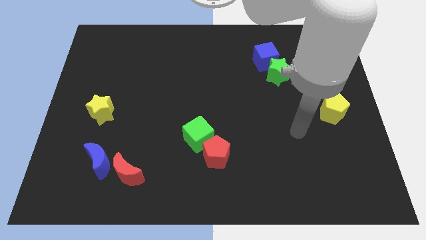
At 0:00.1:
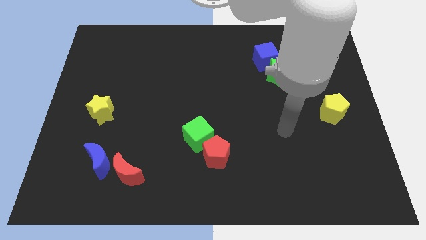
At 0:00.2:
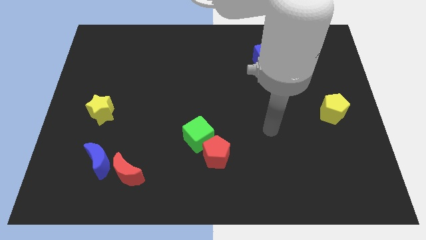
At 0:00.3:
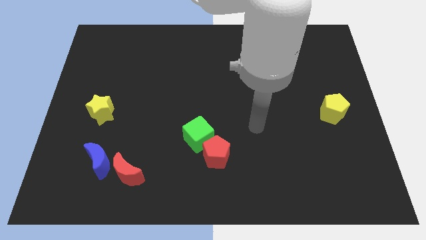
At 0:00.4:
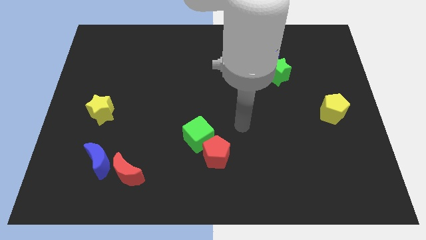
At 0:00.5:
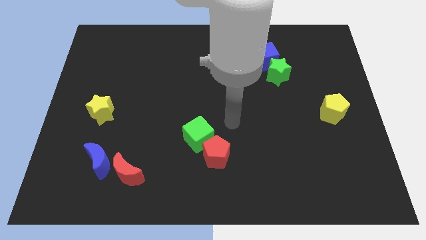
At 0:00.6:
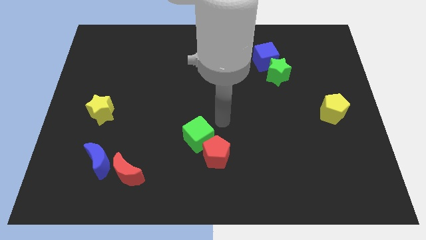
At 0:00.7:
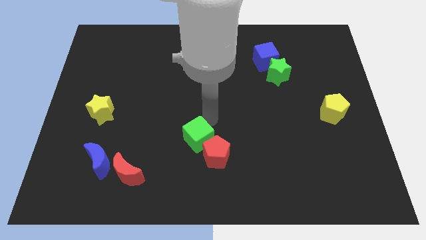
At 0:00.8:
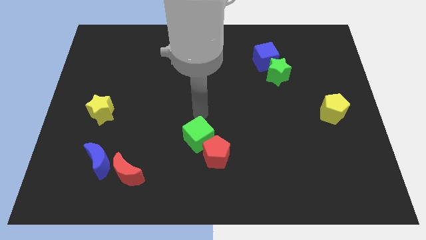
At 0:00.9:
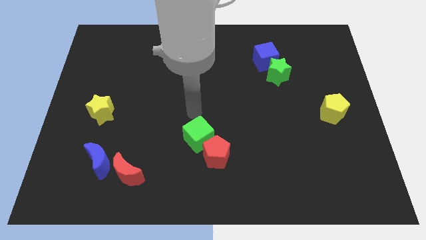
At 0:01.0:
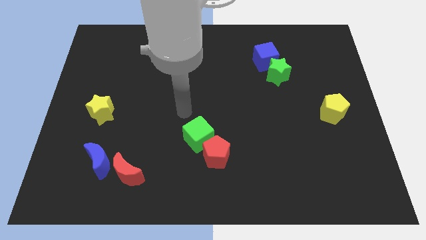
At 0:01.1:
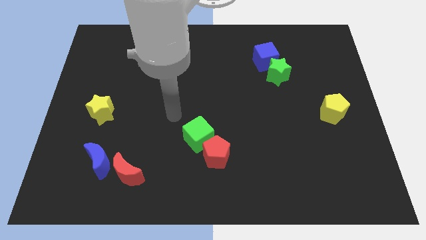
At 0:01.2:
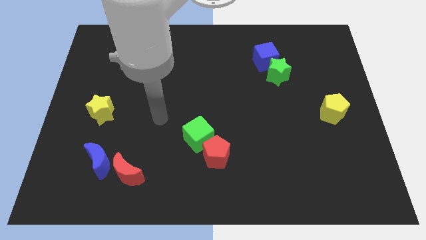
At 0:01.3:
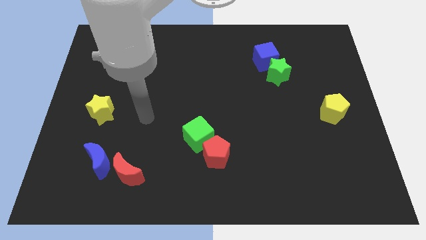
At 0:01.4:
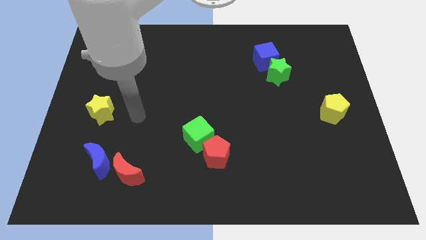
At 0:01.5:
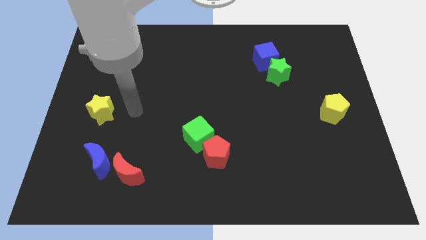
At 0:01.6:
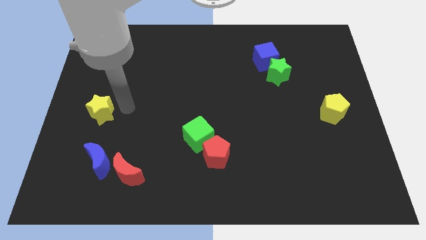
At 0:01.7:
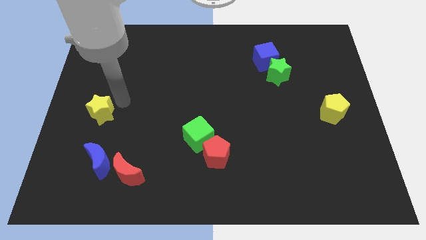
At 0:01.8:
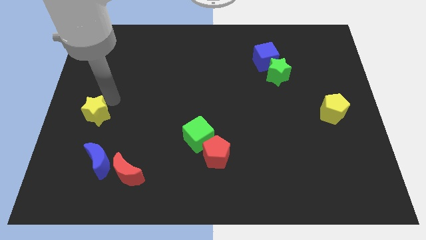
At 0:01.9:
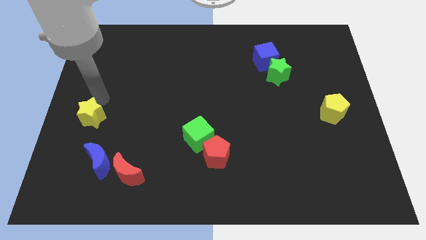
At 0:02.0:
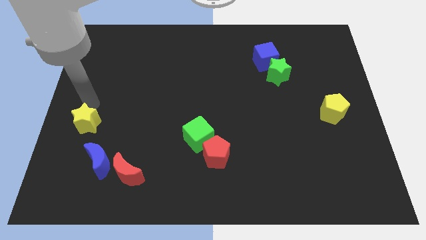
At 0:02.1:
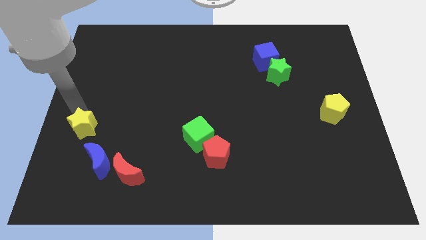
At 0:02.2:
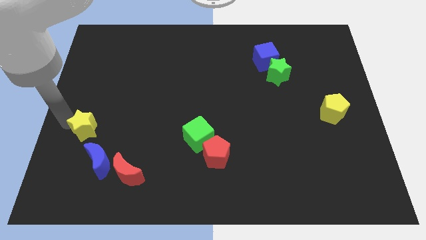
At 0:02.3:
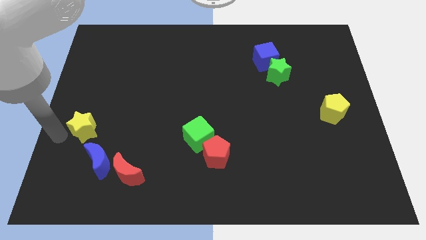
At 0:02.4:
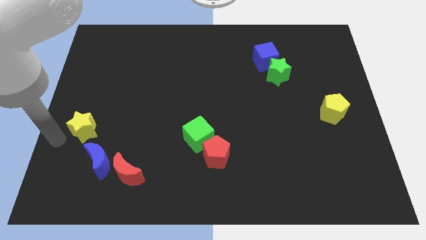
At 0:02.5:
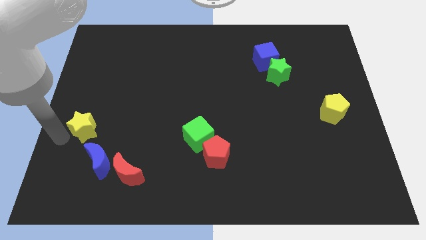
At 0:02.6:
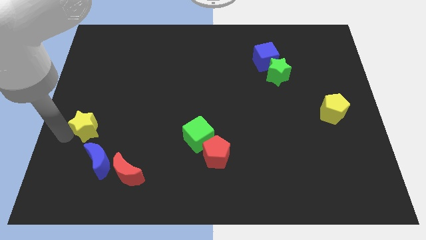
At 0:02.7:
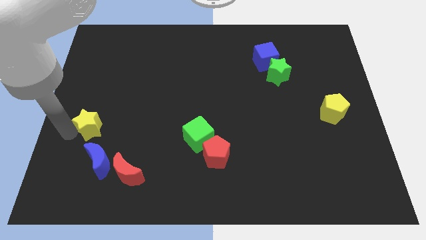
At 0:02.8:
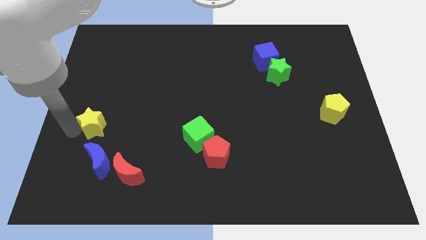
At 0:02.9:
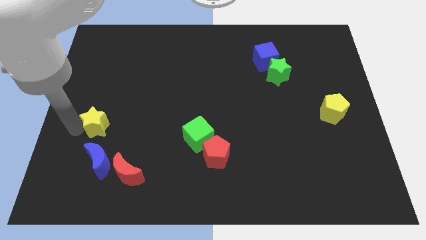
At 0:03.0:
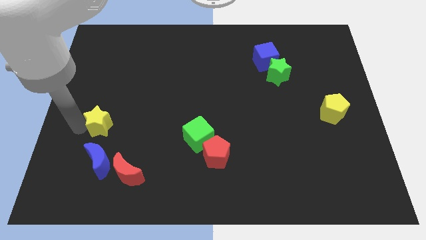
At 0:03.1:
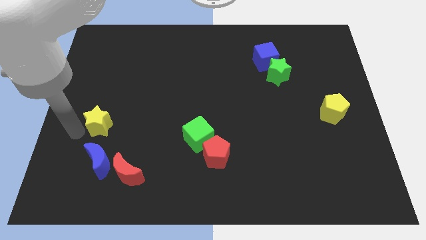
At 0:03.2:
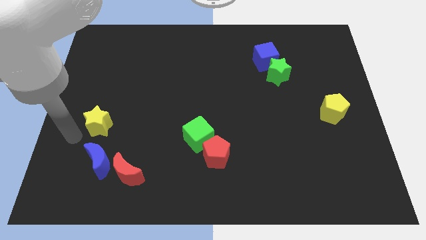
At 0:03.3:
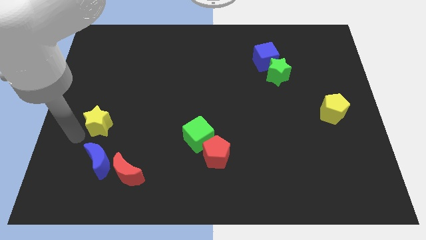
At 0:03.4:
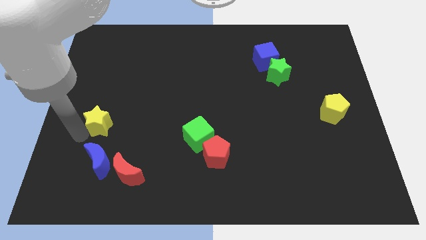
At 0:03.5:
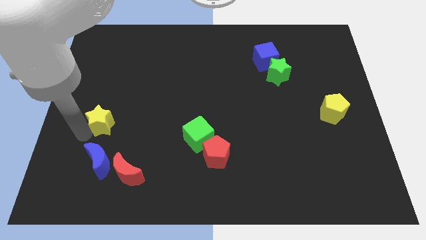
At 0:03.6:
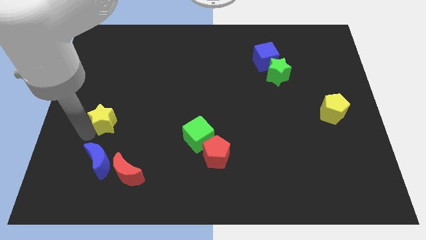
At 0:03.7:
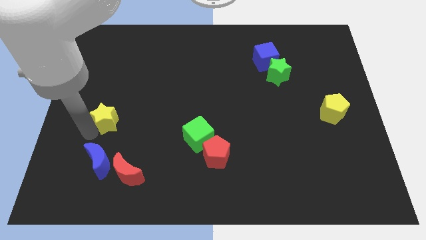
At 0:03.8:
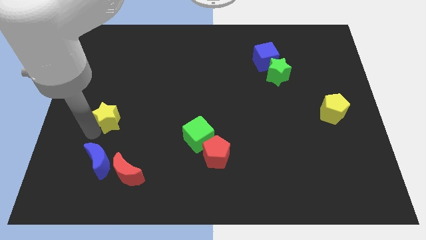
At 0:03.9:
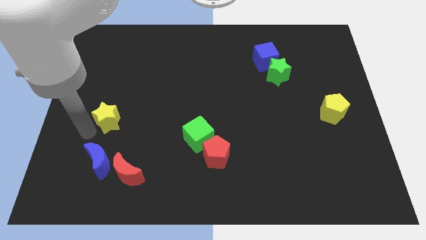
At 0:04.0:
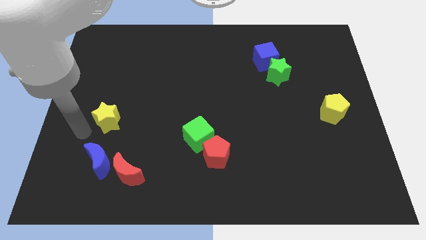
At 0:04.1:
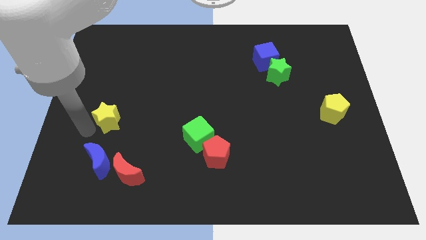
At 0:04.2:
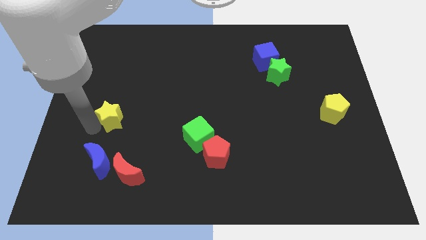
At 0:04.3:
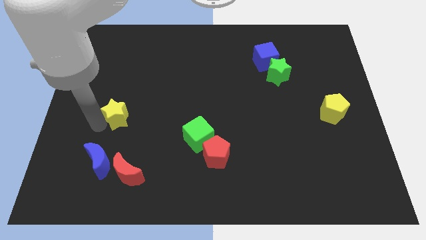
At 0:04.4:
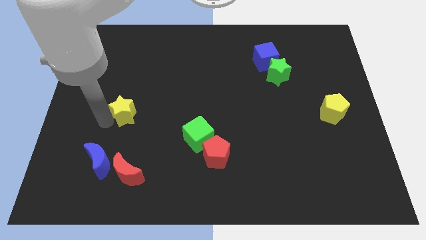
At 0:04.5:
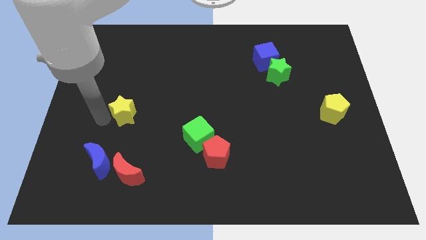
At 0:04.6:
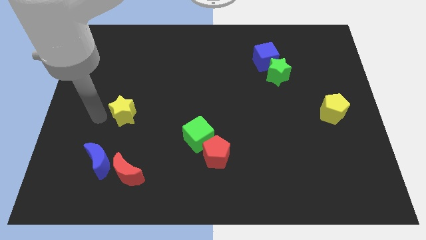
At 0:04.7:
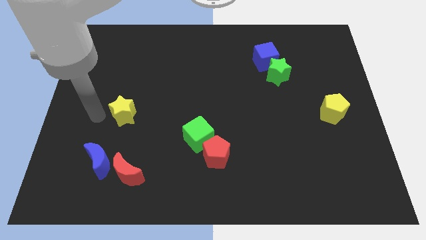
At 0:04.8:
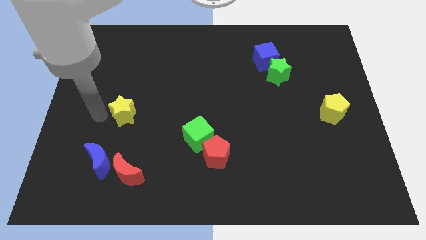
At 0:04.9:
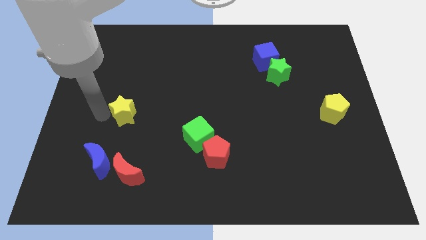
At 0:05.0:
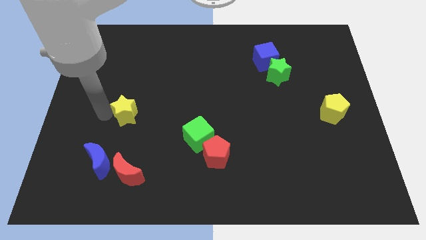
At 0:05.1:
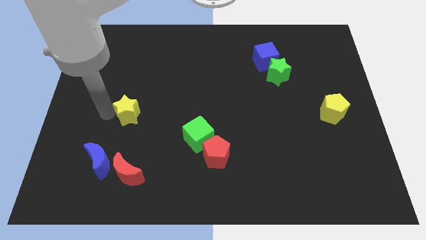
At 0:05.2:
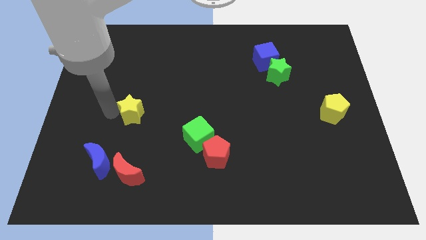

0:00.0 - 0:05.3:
push the yellow star to the right a little

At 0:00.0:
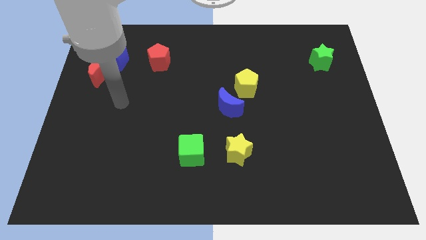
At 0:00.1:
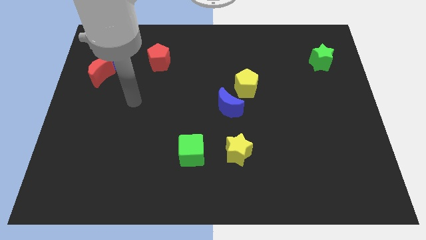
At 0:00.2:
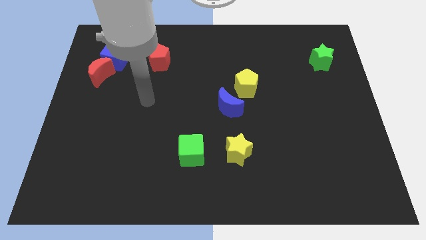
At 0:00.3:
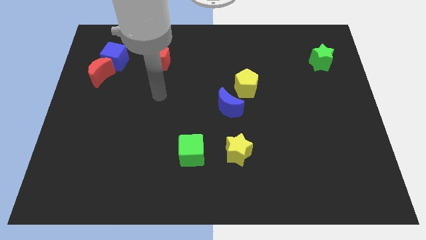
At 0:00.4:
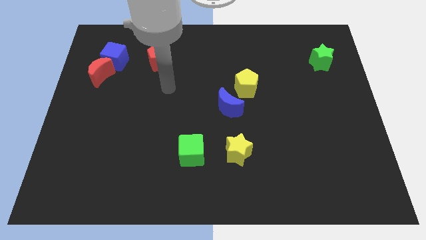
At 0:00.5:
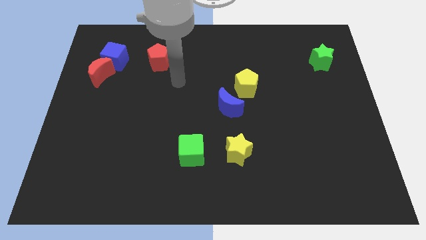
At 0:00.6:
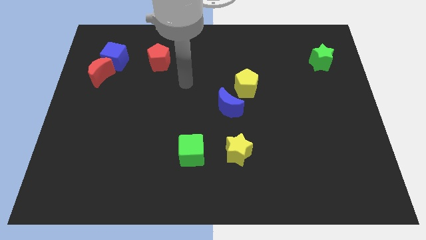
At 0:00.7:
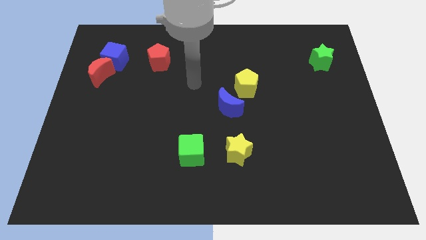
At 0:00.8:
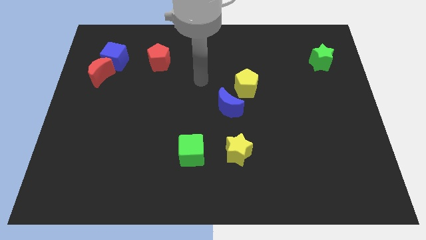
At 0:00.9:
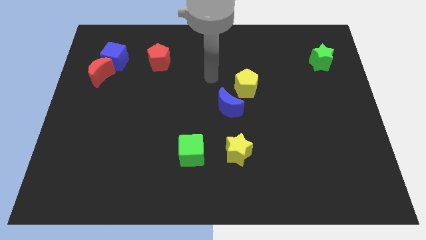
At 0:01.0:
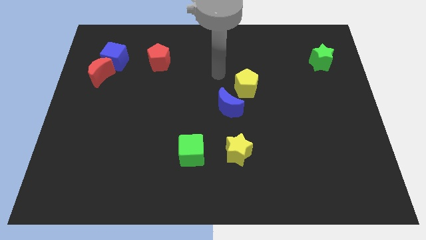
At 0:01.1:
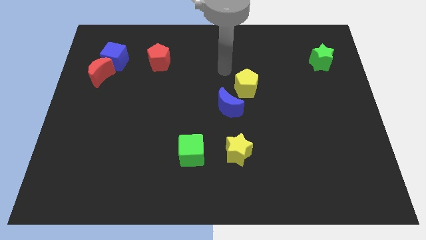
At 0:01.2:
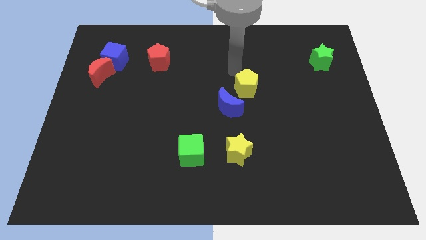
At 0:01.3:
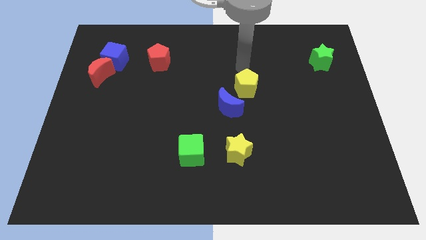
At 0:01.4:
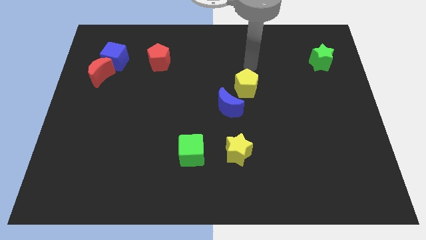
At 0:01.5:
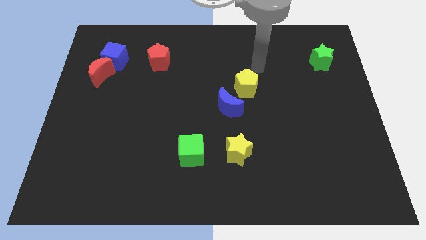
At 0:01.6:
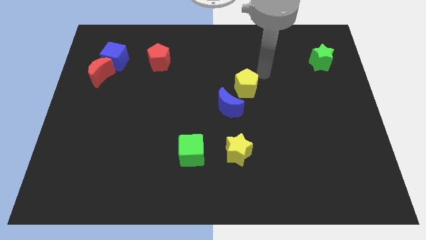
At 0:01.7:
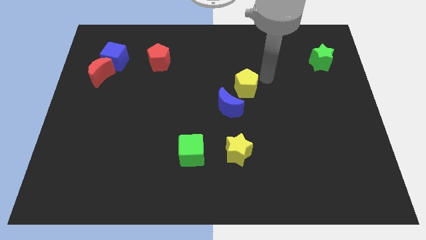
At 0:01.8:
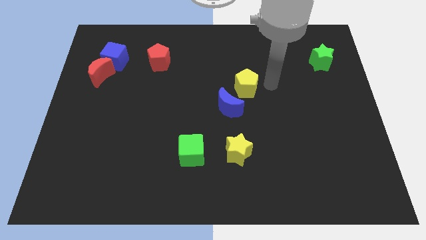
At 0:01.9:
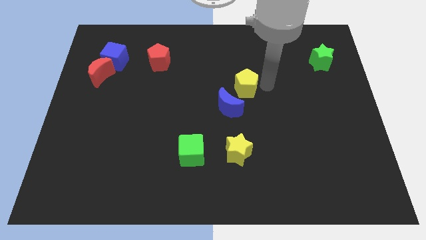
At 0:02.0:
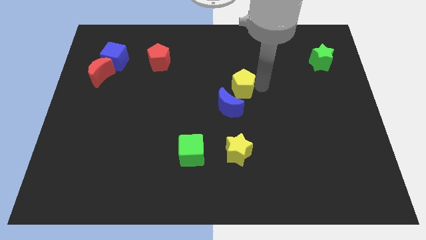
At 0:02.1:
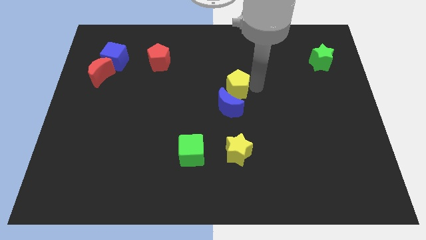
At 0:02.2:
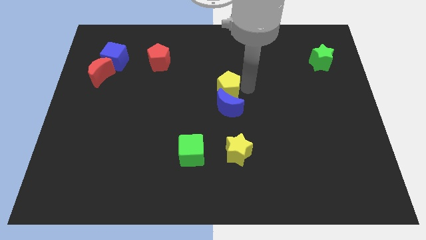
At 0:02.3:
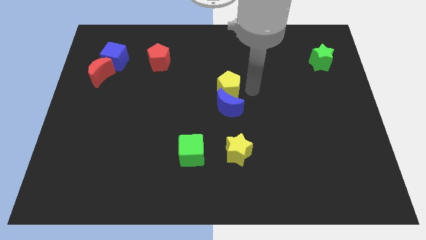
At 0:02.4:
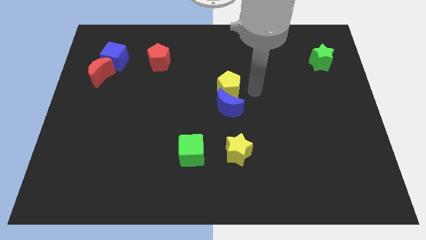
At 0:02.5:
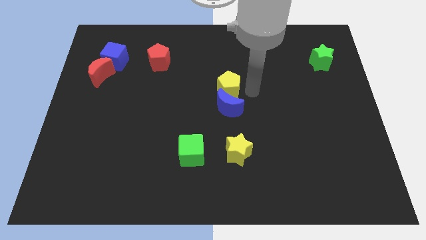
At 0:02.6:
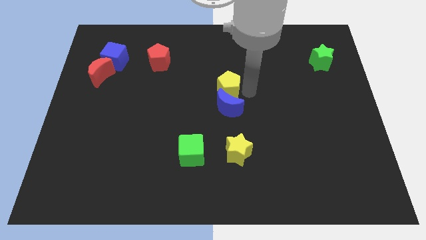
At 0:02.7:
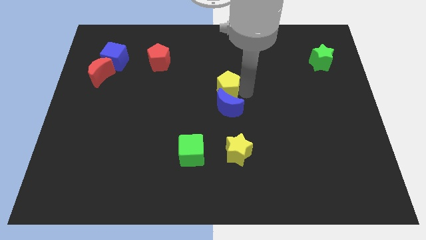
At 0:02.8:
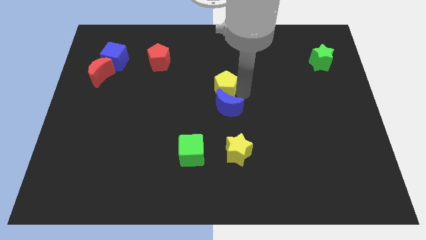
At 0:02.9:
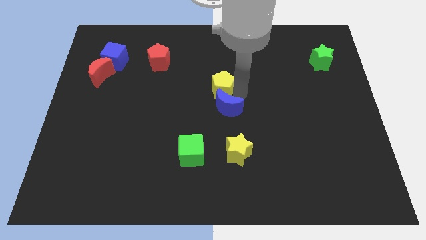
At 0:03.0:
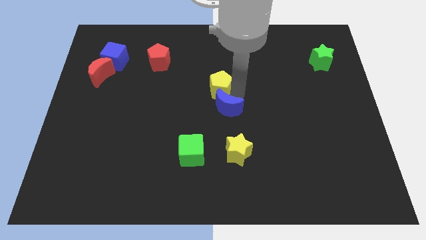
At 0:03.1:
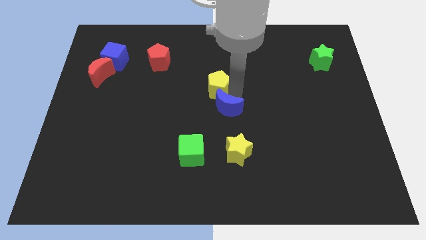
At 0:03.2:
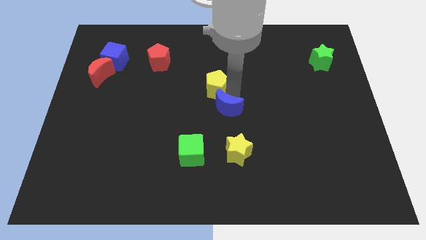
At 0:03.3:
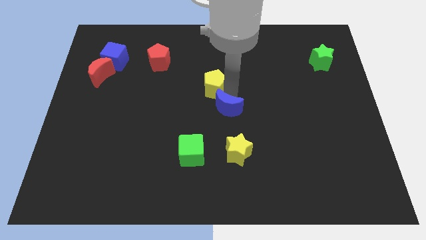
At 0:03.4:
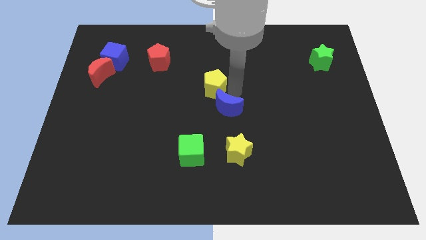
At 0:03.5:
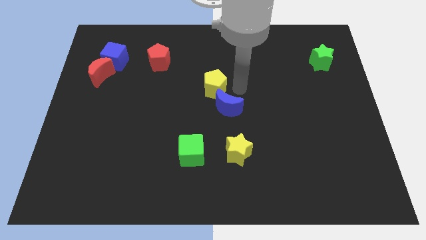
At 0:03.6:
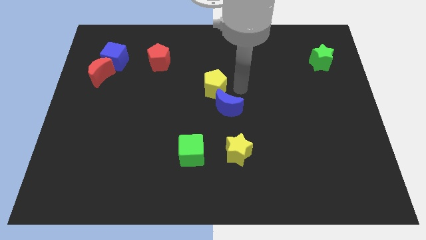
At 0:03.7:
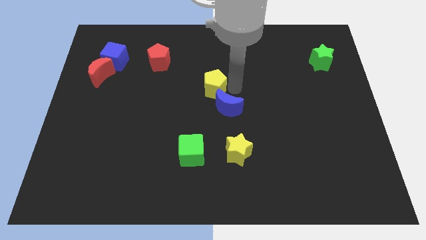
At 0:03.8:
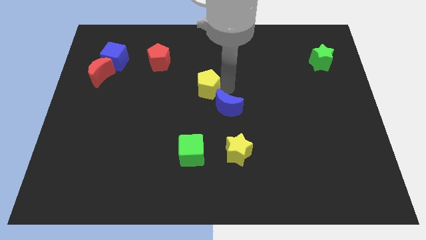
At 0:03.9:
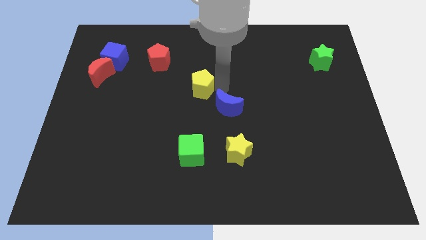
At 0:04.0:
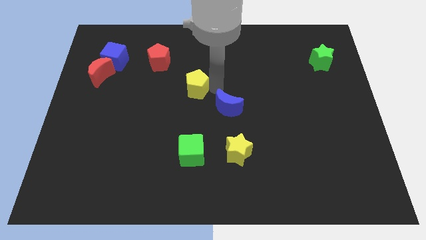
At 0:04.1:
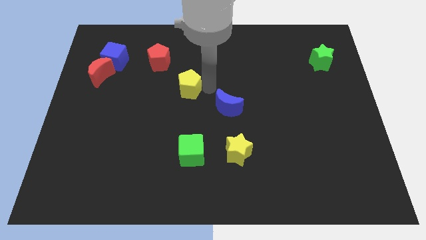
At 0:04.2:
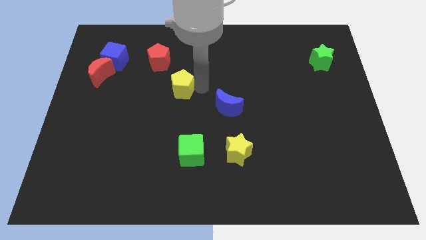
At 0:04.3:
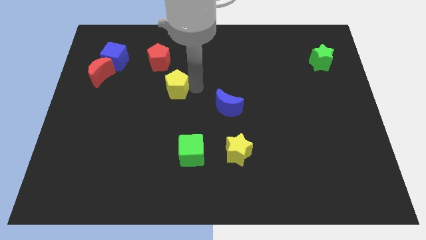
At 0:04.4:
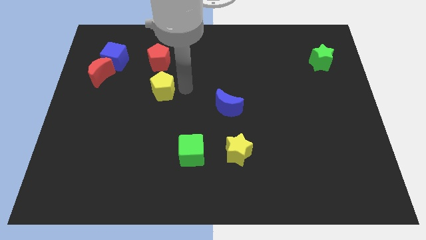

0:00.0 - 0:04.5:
push the yellow pentagon left
